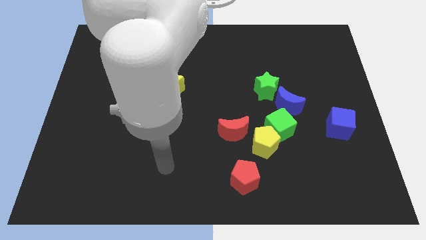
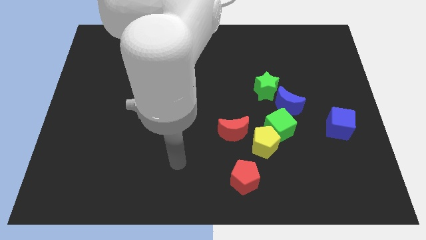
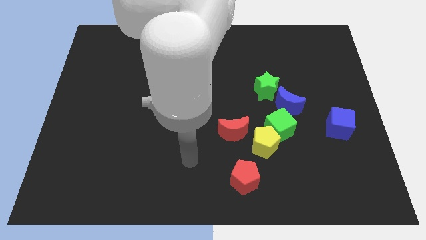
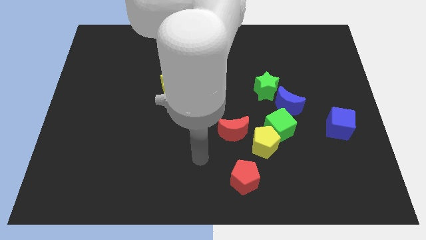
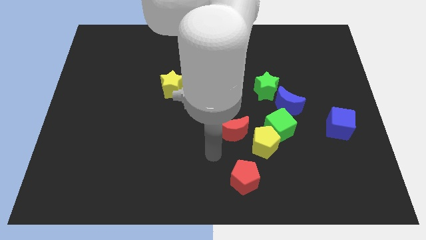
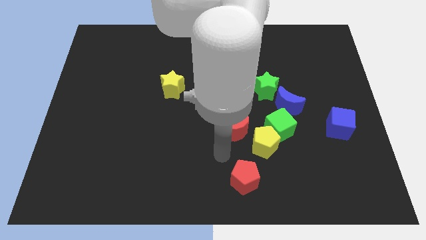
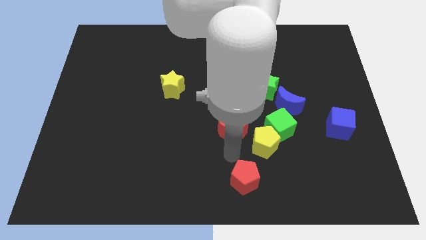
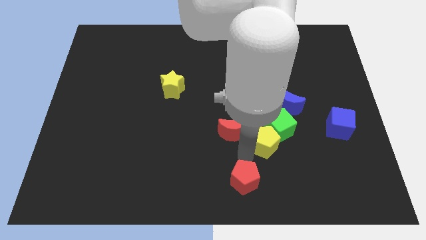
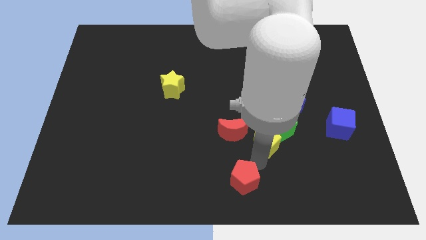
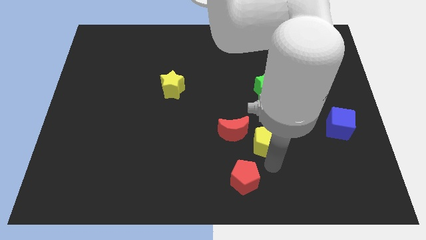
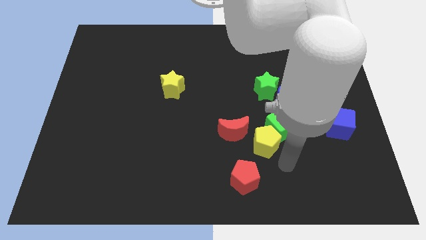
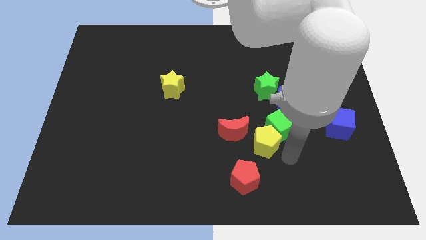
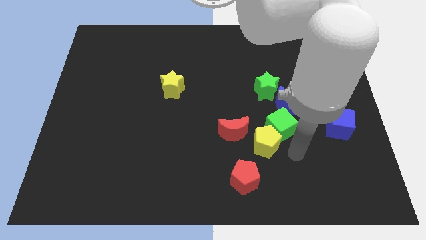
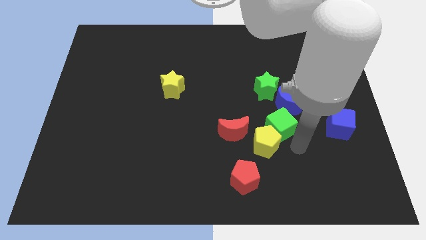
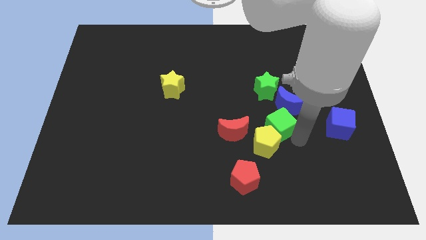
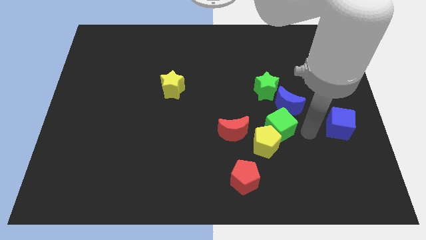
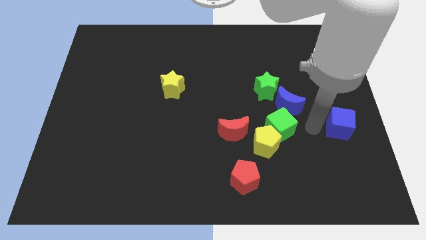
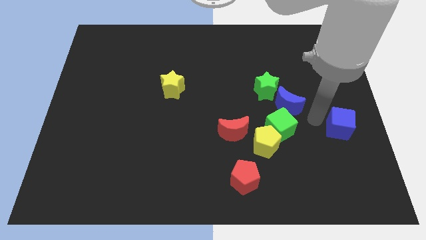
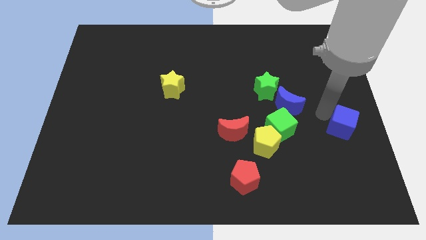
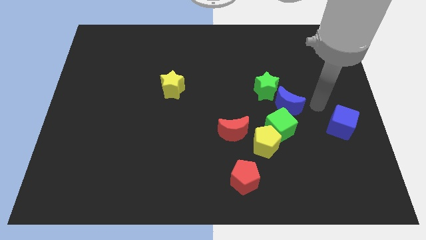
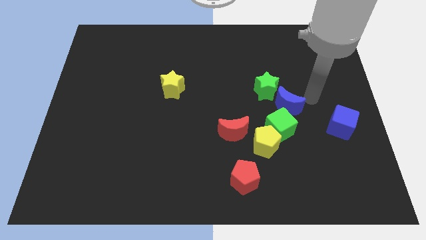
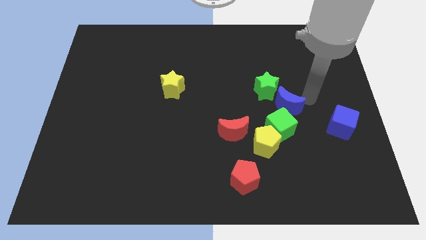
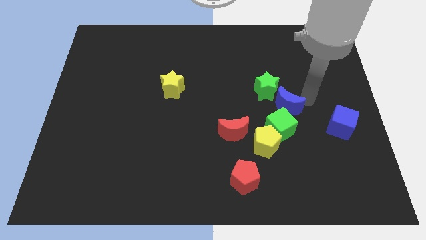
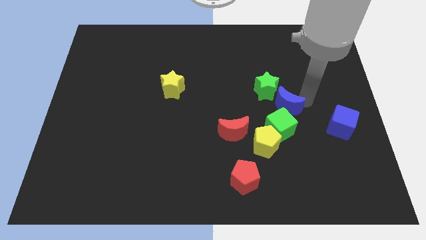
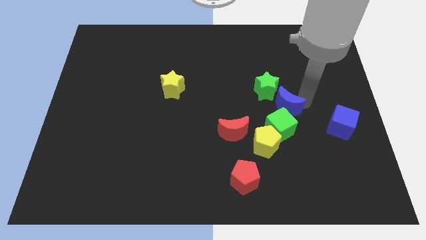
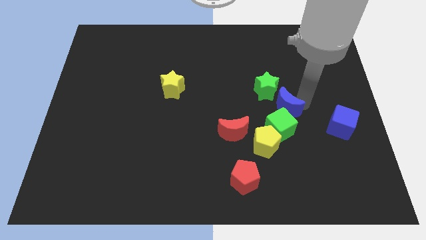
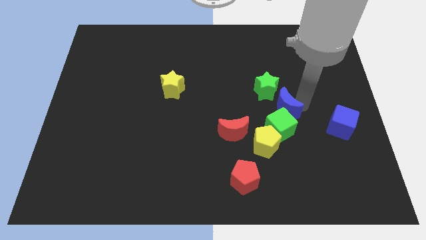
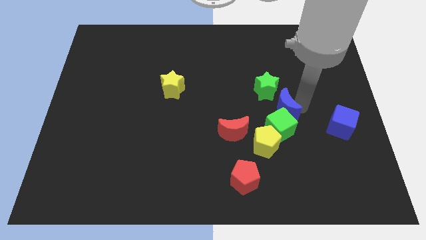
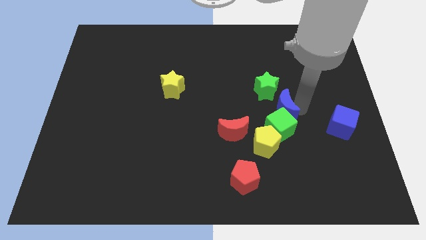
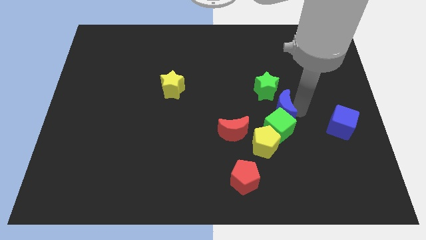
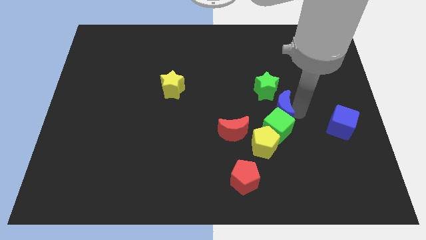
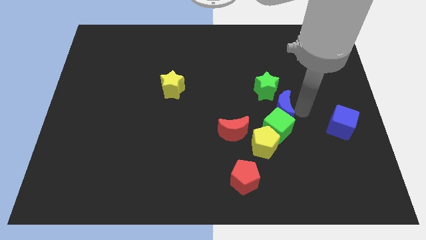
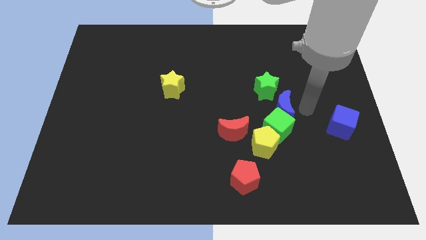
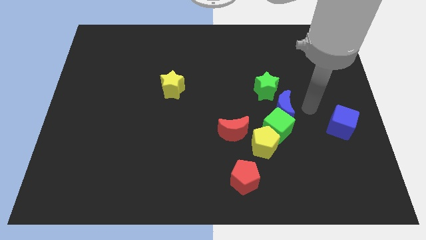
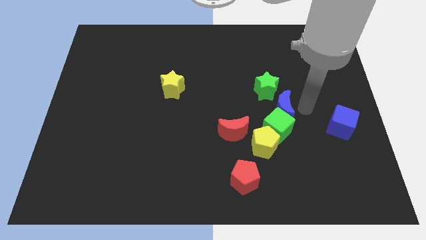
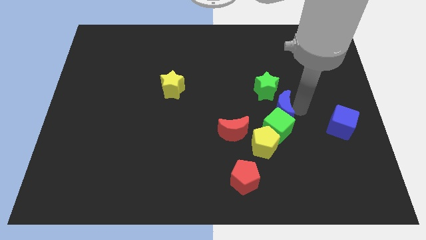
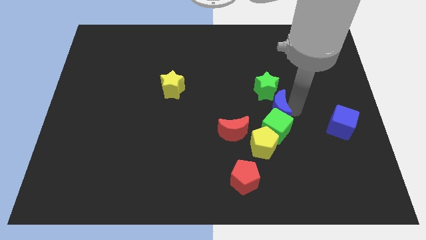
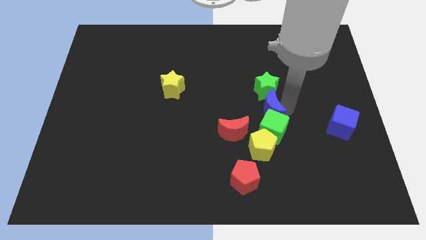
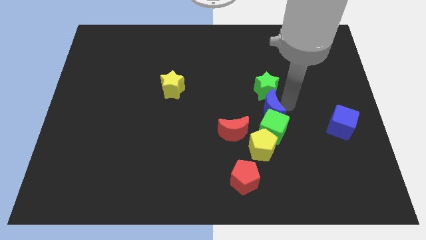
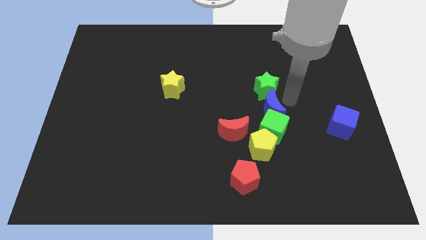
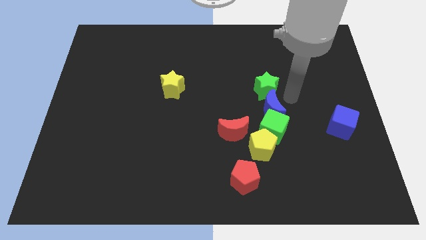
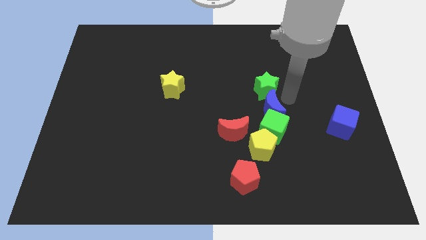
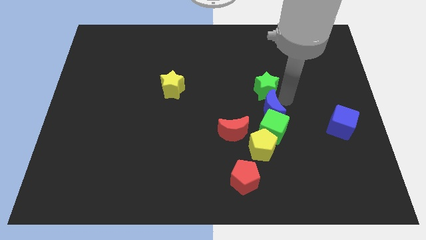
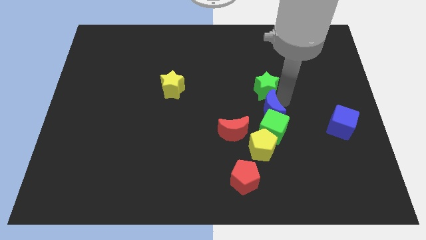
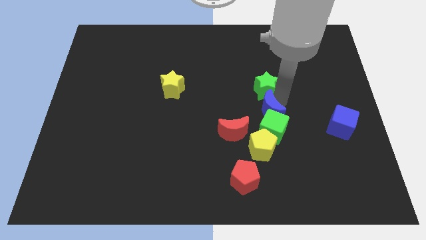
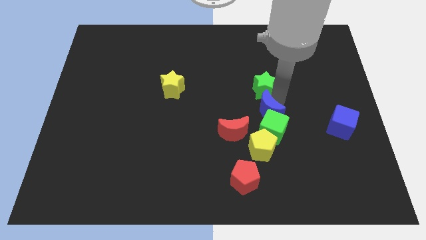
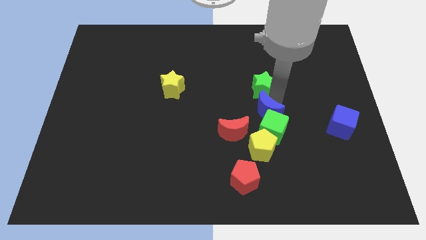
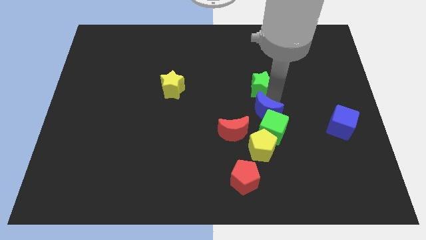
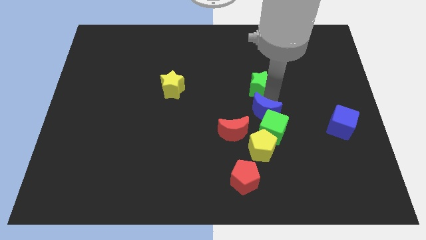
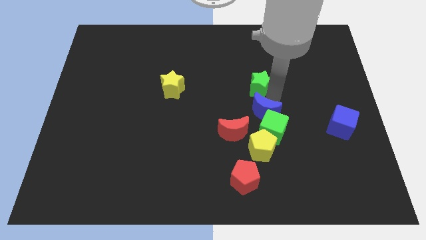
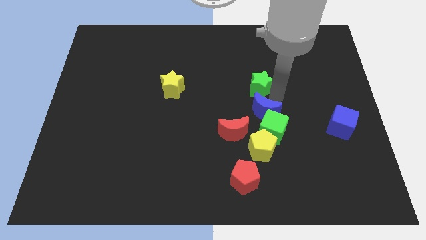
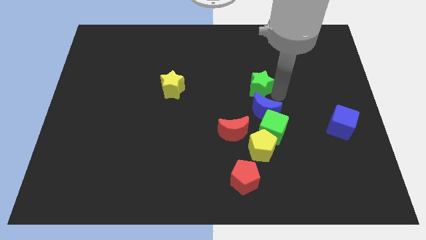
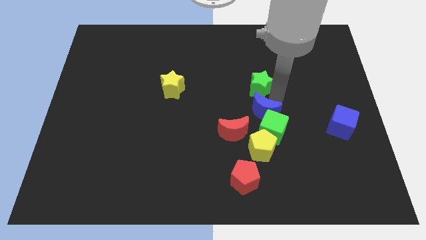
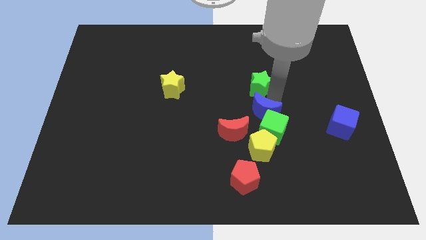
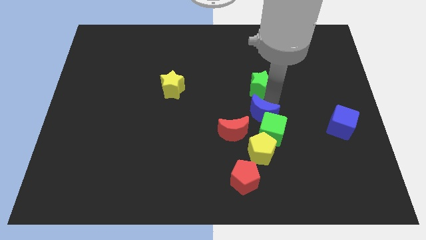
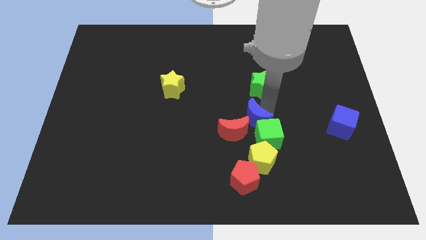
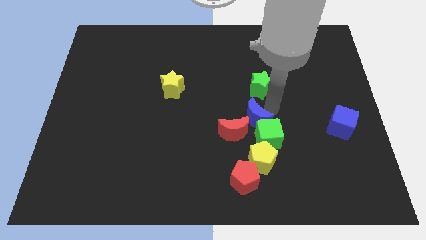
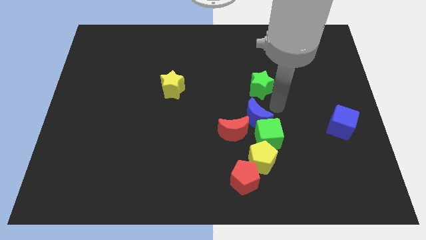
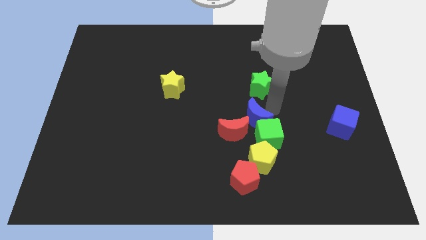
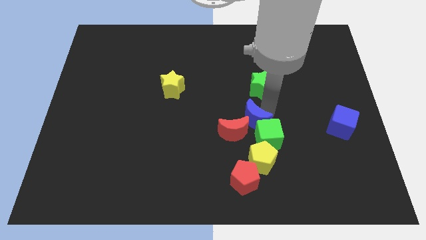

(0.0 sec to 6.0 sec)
slide the blue moon to the red moon

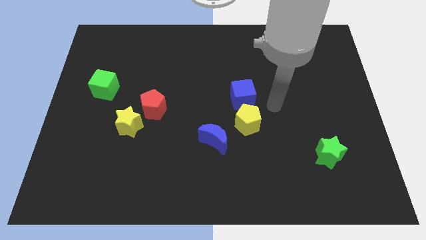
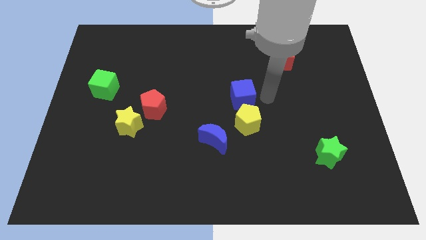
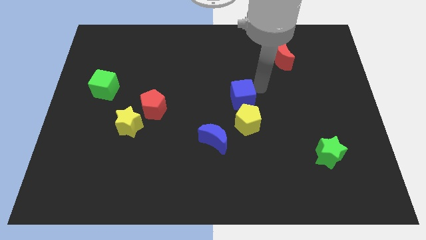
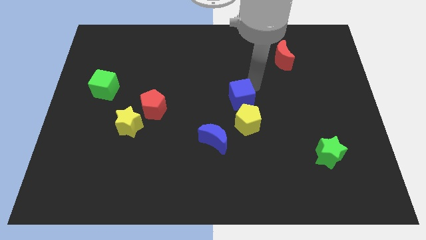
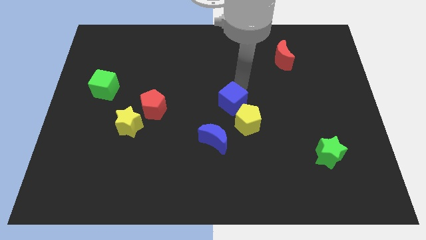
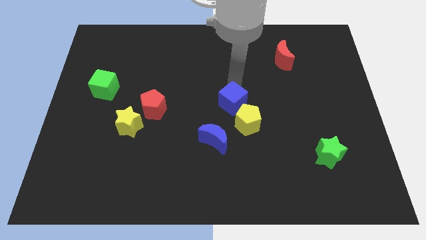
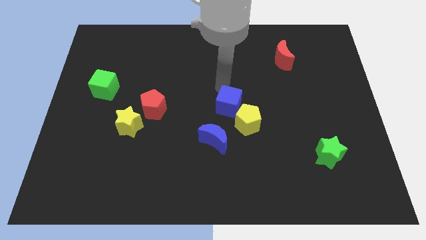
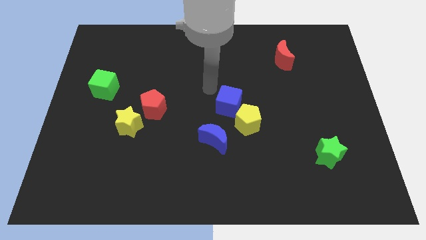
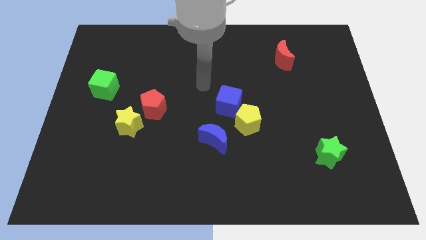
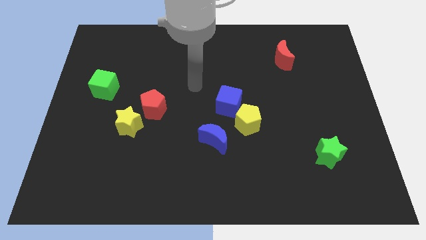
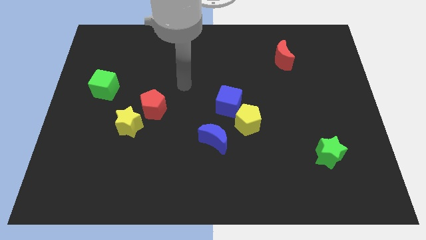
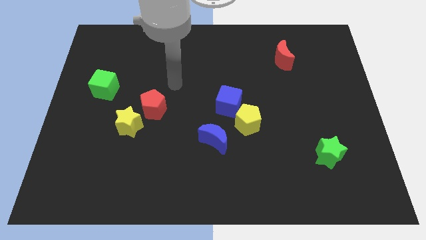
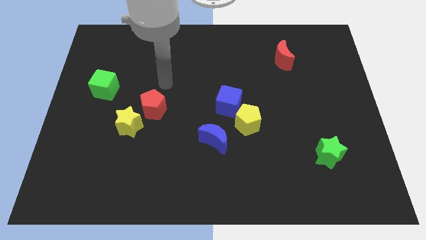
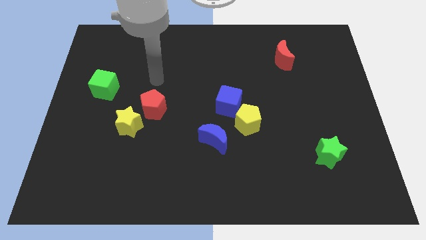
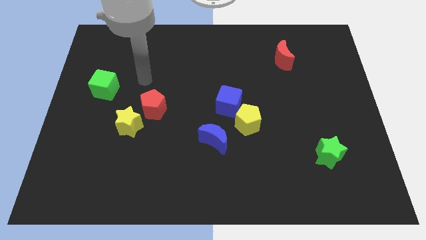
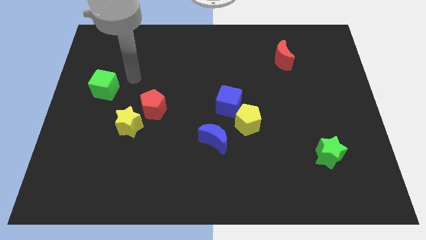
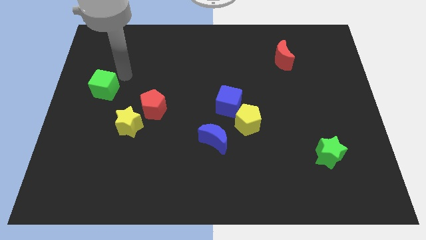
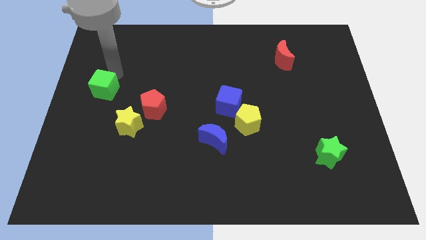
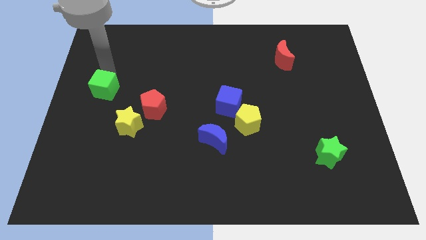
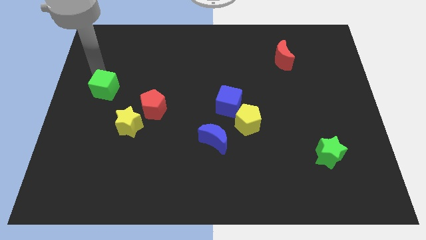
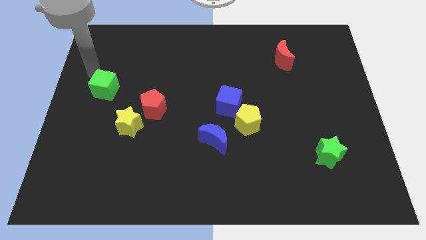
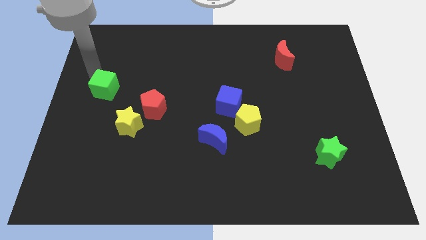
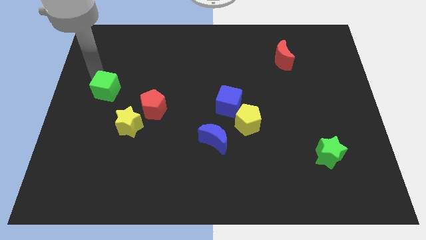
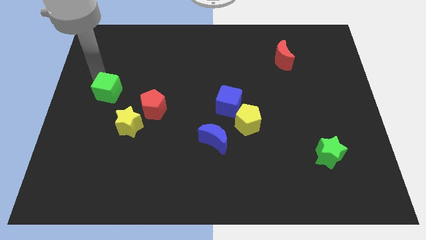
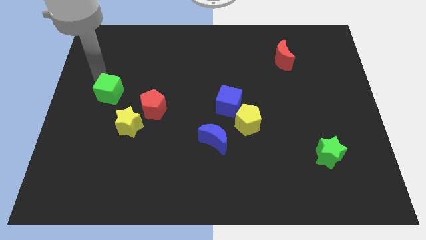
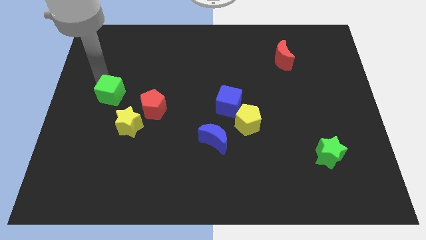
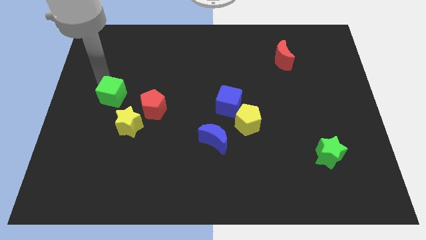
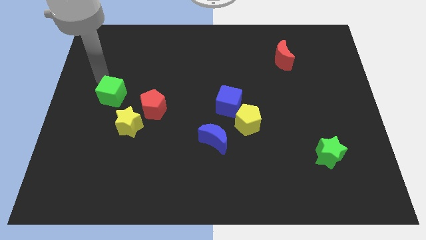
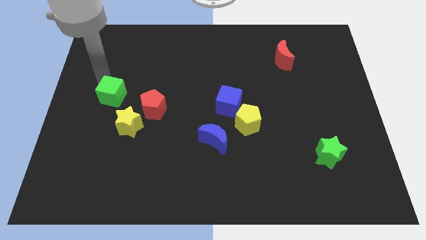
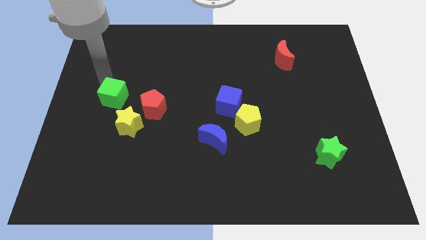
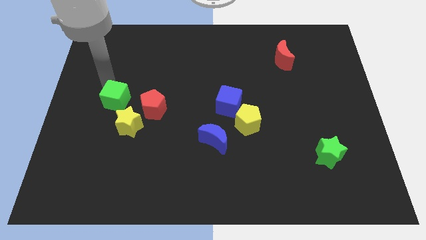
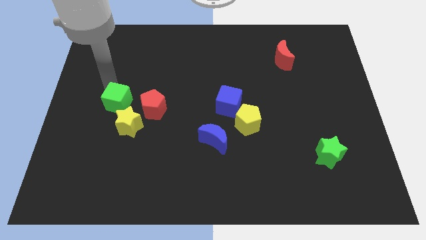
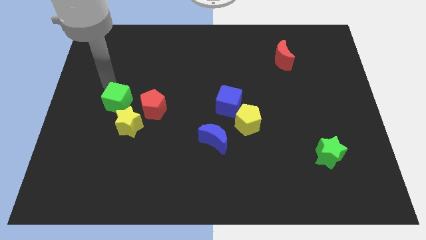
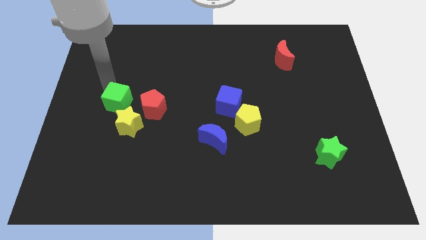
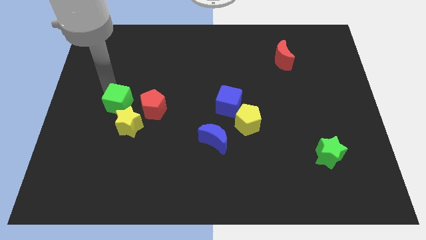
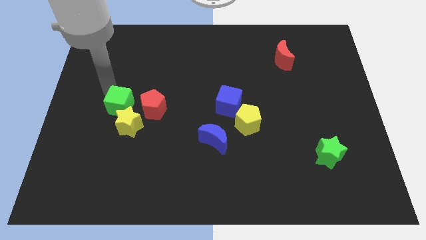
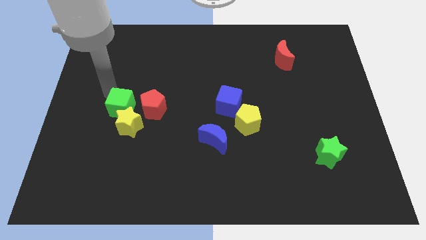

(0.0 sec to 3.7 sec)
push the green cube next to the yellow star
